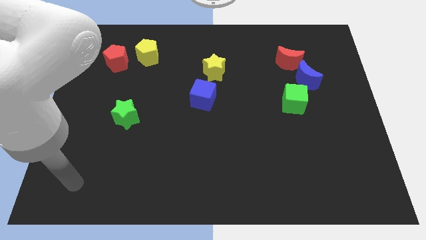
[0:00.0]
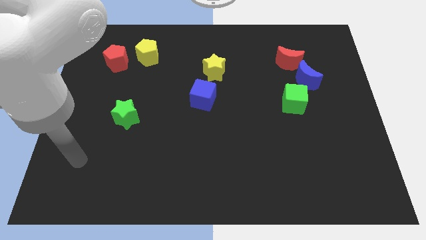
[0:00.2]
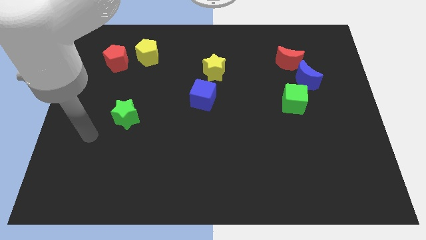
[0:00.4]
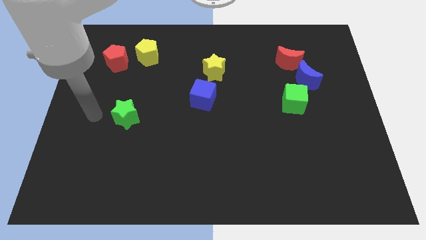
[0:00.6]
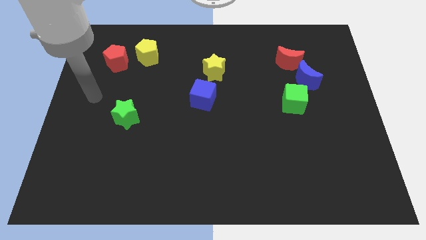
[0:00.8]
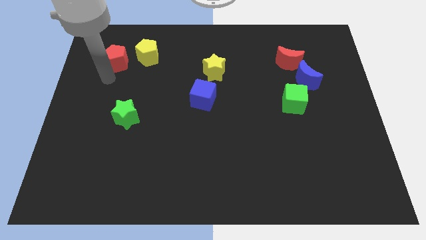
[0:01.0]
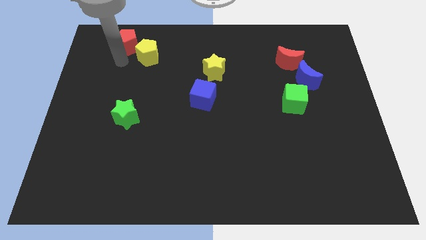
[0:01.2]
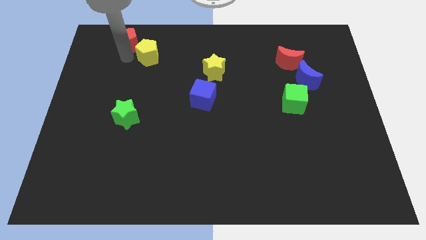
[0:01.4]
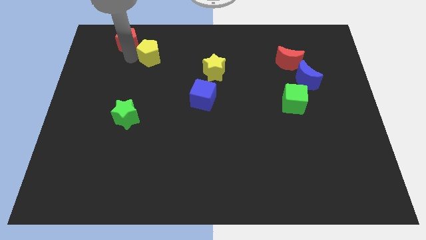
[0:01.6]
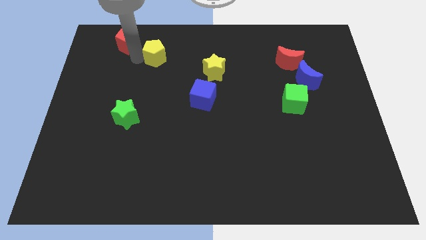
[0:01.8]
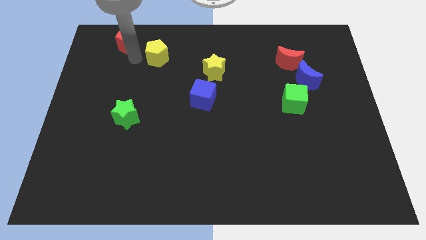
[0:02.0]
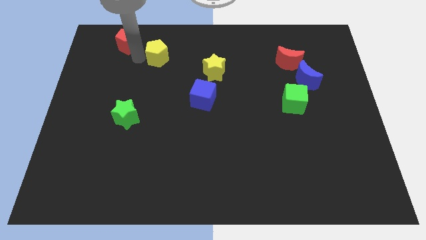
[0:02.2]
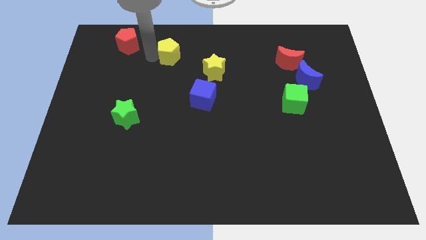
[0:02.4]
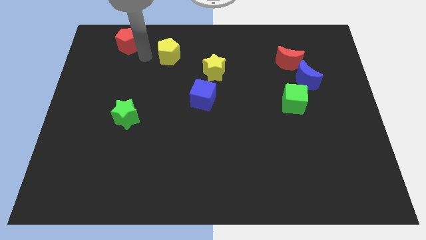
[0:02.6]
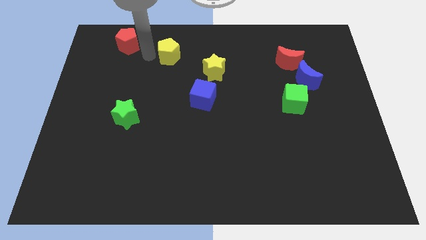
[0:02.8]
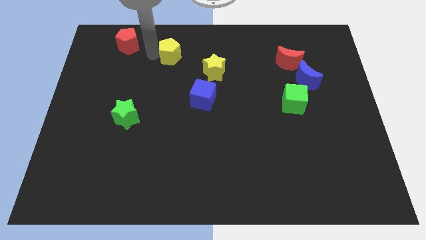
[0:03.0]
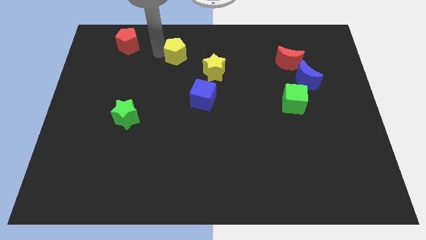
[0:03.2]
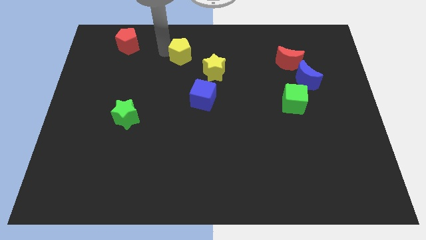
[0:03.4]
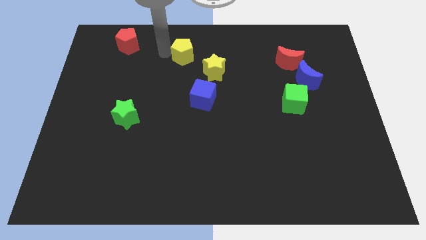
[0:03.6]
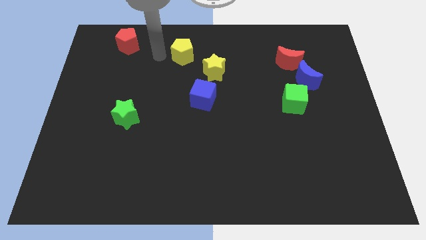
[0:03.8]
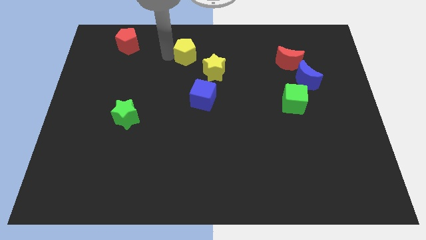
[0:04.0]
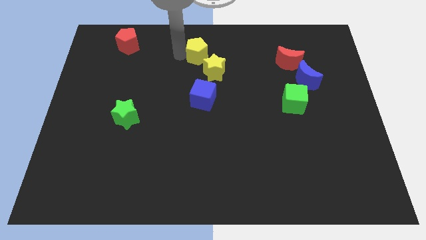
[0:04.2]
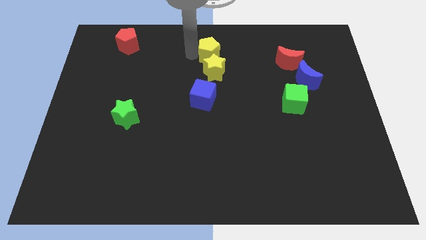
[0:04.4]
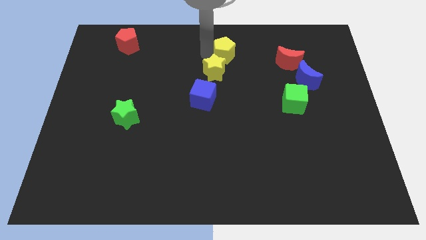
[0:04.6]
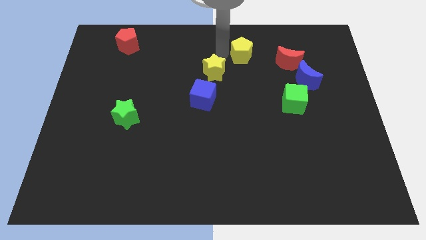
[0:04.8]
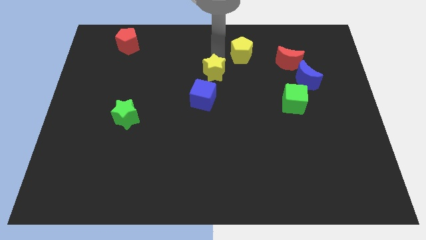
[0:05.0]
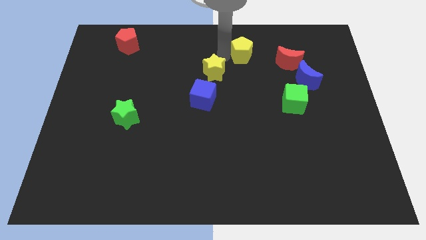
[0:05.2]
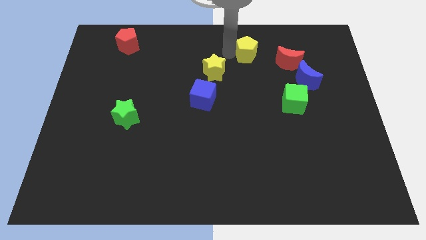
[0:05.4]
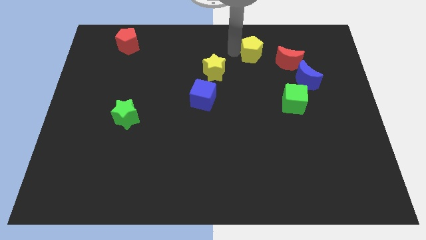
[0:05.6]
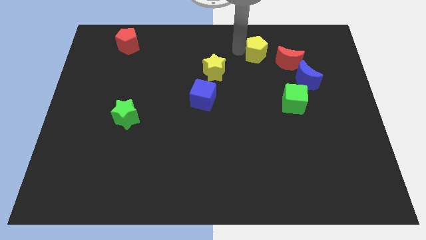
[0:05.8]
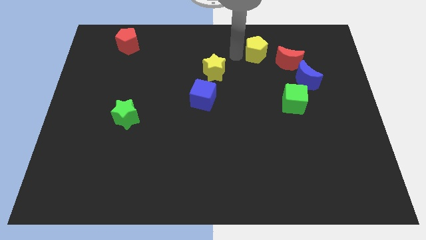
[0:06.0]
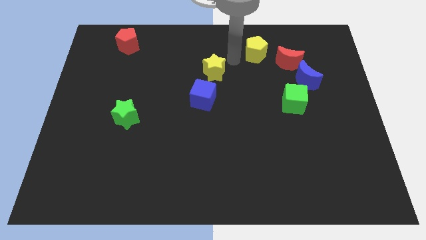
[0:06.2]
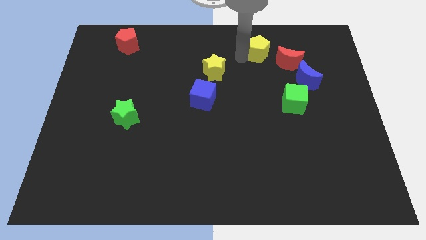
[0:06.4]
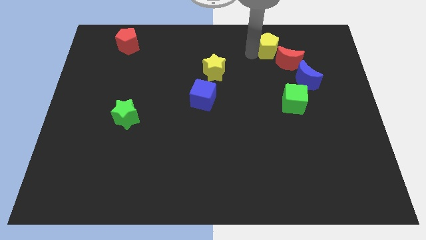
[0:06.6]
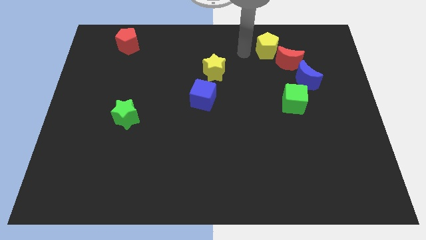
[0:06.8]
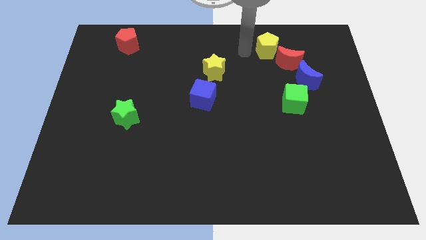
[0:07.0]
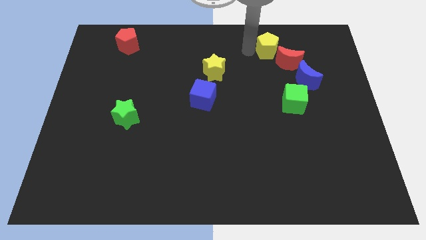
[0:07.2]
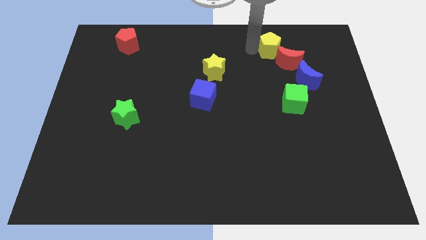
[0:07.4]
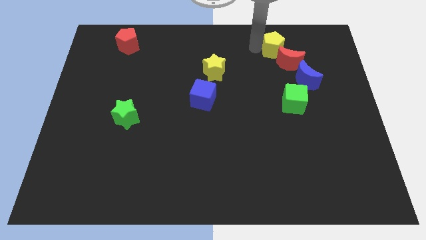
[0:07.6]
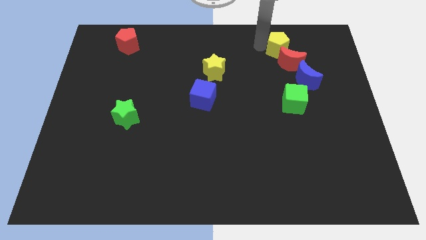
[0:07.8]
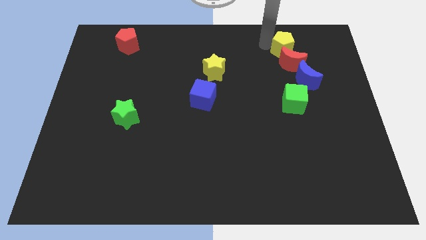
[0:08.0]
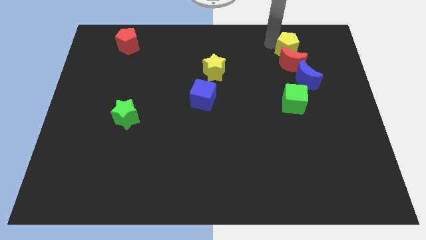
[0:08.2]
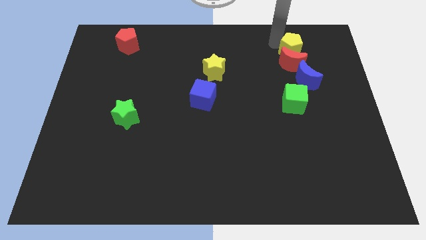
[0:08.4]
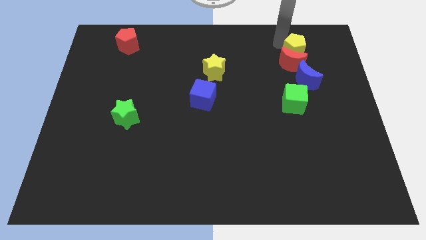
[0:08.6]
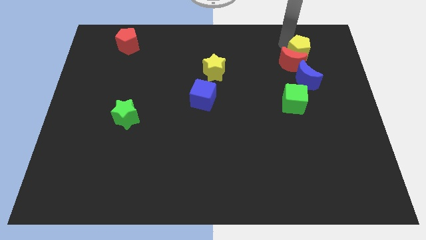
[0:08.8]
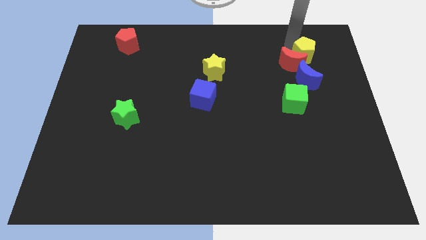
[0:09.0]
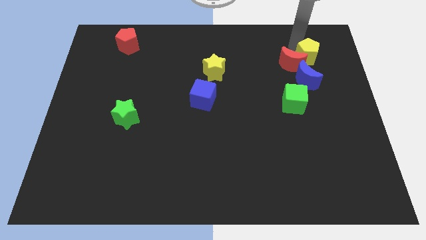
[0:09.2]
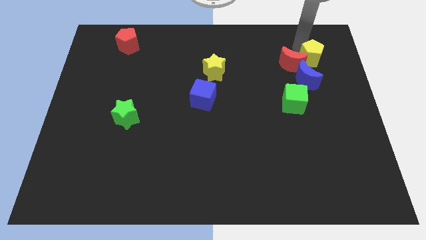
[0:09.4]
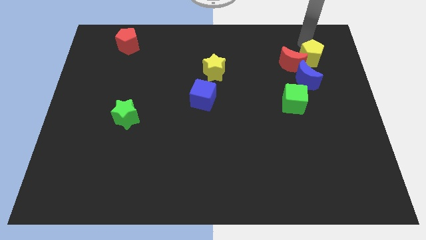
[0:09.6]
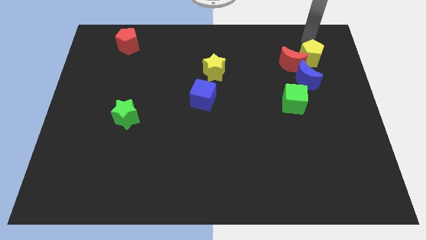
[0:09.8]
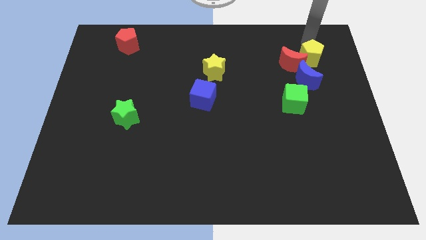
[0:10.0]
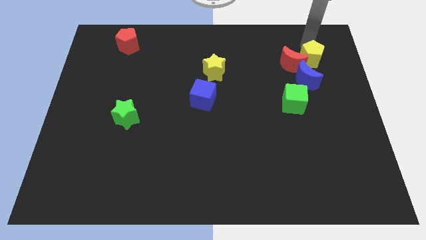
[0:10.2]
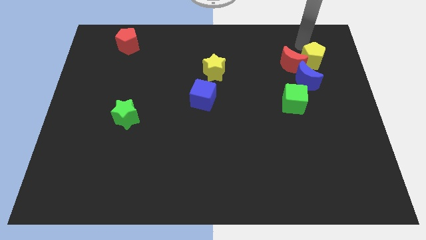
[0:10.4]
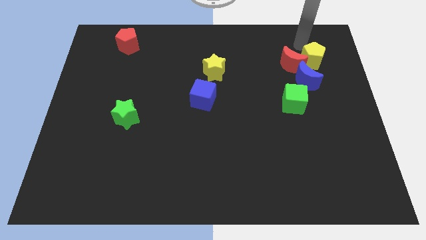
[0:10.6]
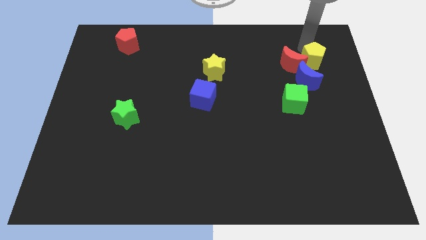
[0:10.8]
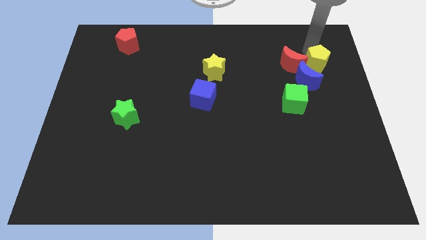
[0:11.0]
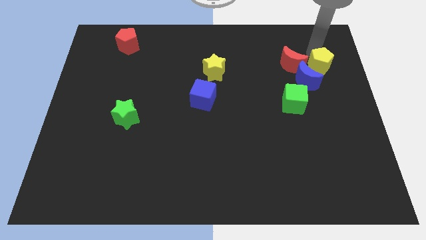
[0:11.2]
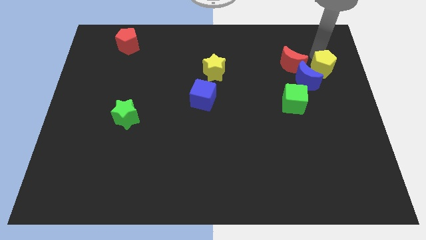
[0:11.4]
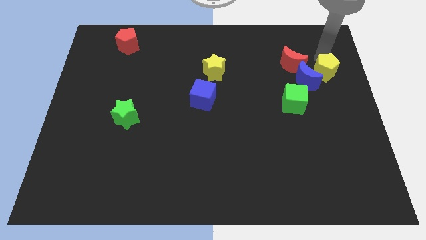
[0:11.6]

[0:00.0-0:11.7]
push the yellow pentagon to the center right

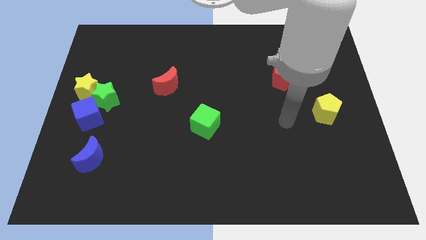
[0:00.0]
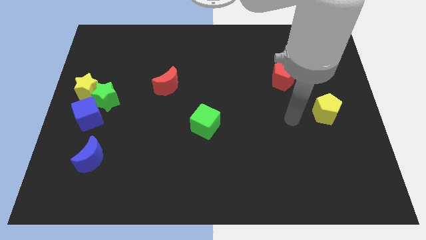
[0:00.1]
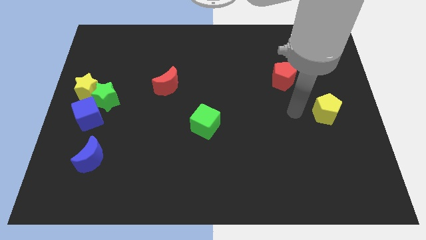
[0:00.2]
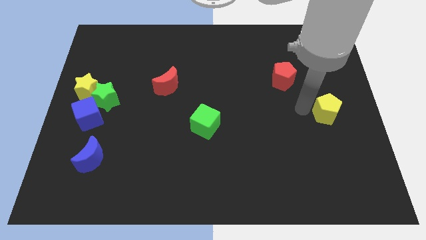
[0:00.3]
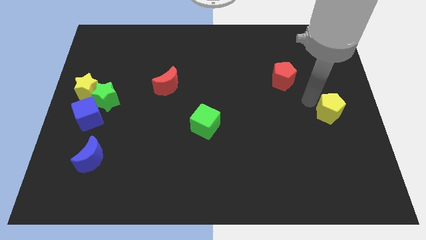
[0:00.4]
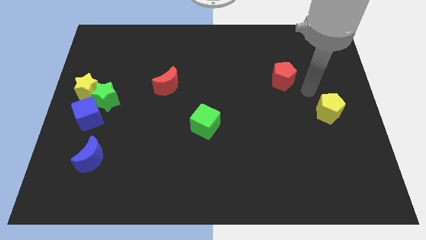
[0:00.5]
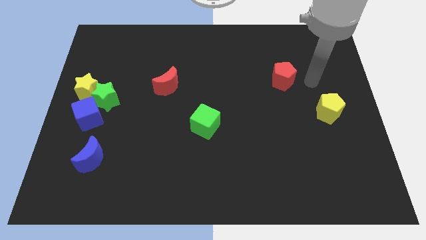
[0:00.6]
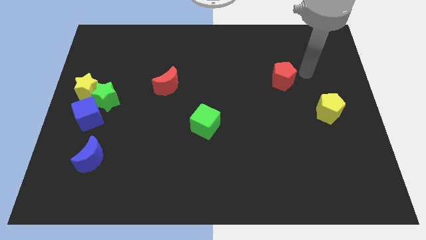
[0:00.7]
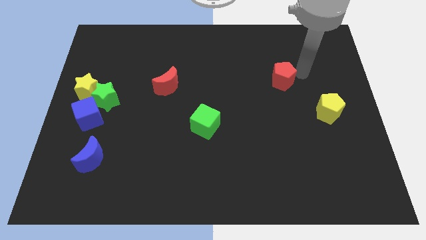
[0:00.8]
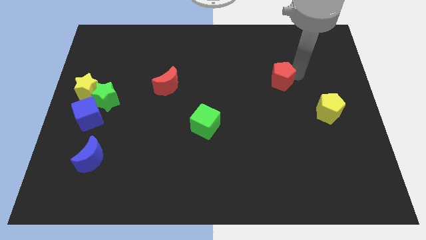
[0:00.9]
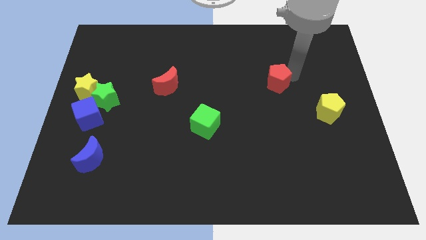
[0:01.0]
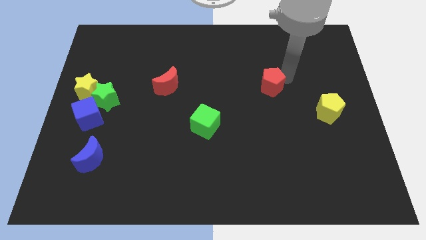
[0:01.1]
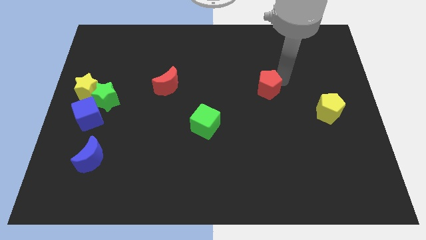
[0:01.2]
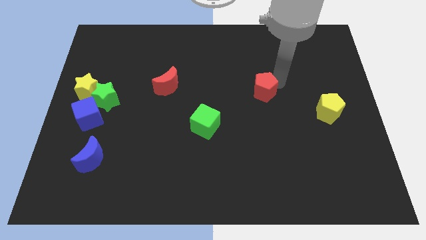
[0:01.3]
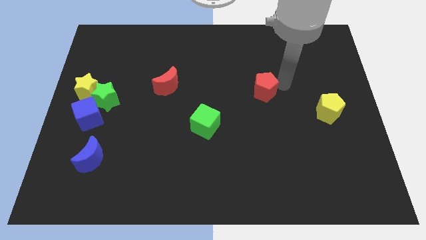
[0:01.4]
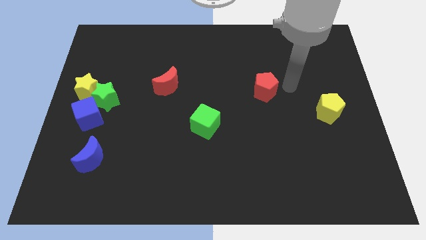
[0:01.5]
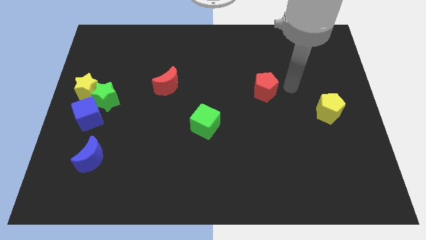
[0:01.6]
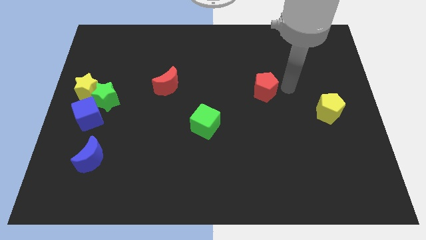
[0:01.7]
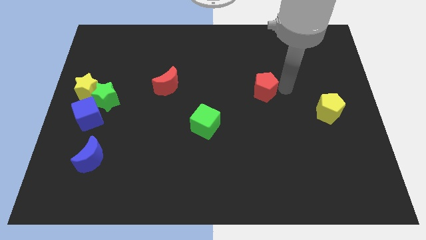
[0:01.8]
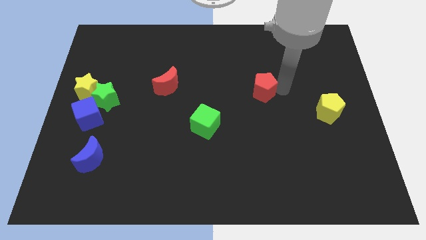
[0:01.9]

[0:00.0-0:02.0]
slide the red pentagon to the middle
